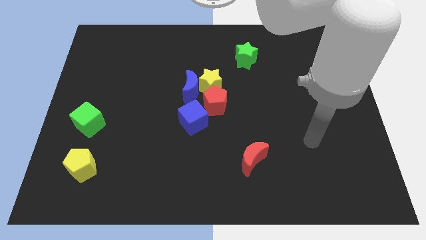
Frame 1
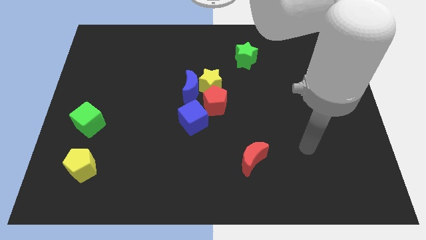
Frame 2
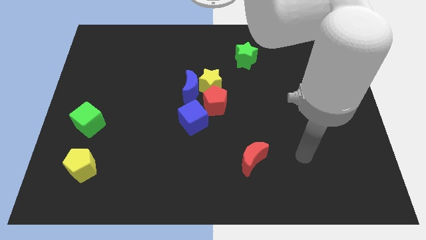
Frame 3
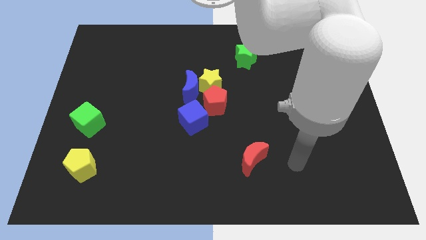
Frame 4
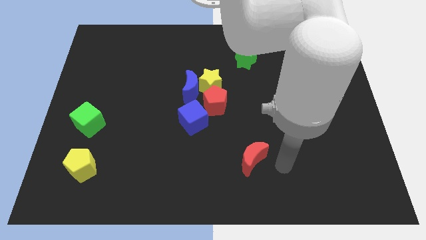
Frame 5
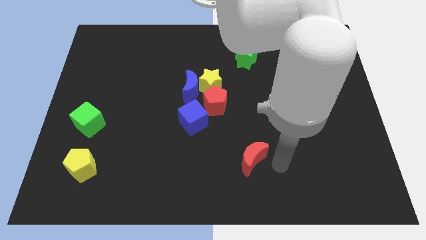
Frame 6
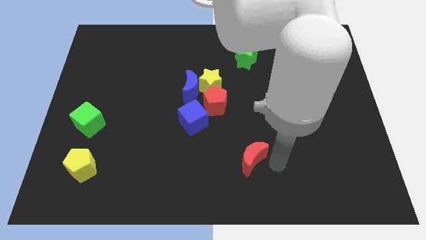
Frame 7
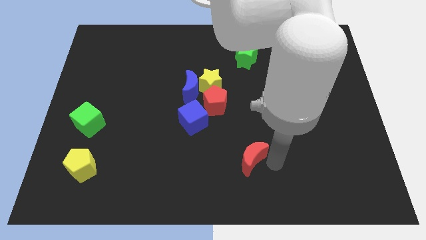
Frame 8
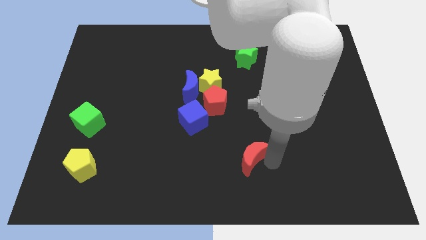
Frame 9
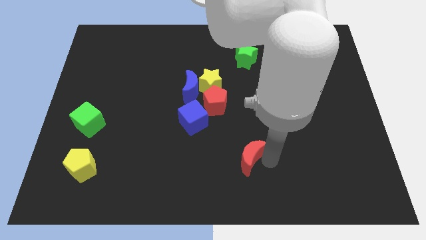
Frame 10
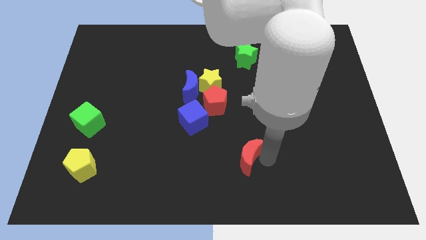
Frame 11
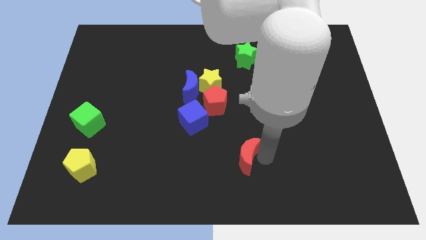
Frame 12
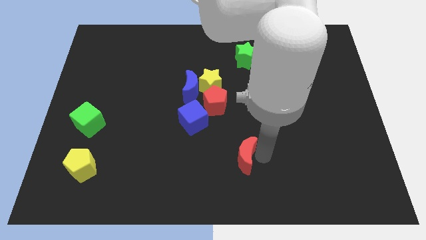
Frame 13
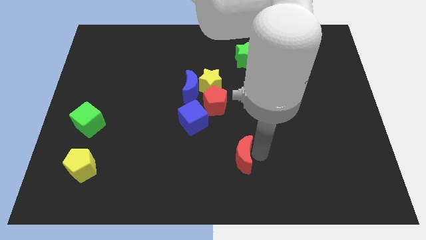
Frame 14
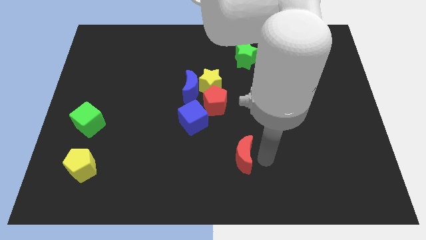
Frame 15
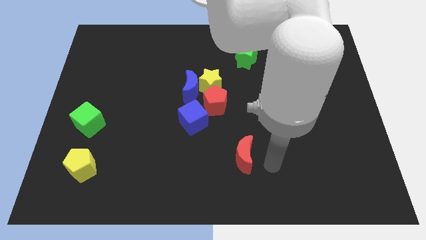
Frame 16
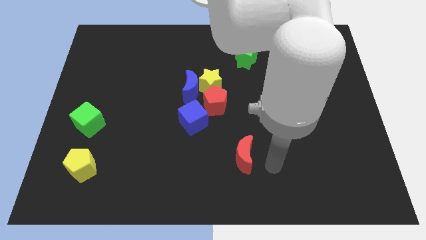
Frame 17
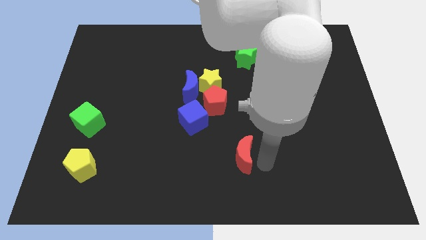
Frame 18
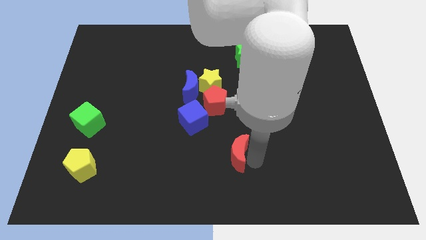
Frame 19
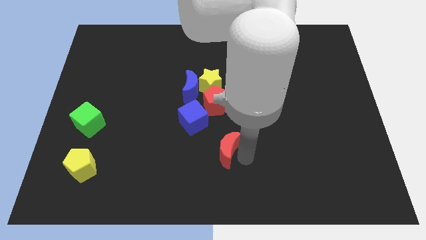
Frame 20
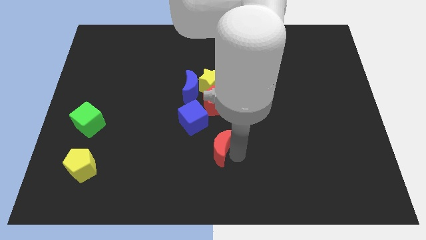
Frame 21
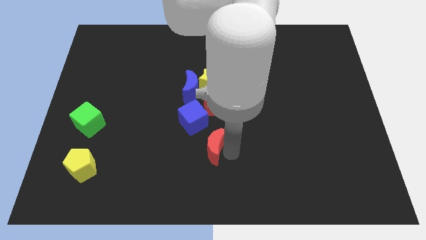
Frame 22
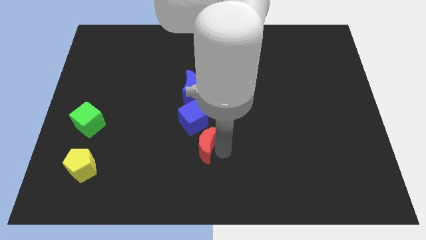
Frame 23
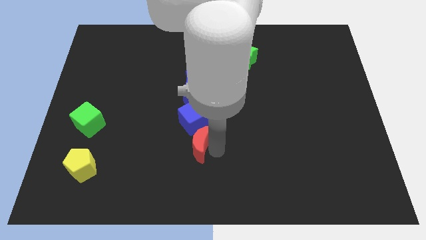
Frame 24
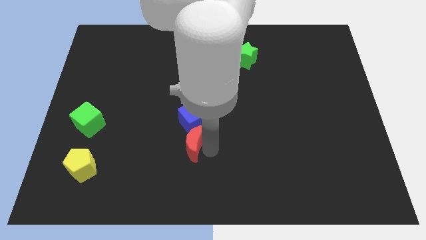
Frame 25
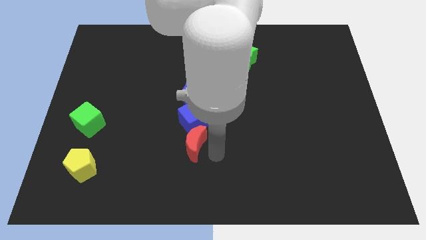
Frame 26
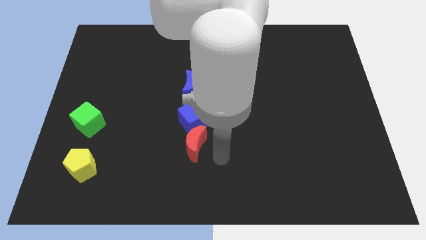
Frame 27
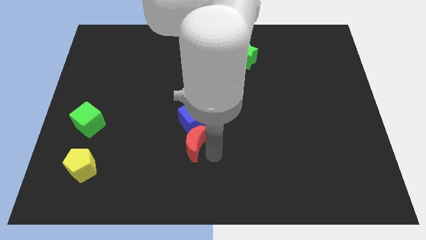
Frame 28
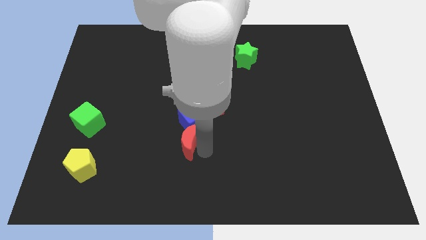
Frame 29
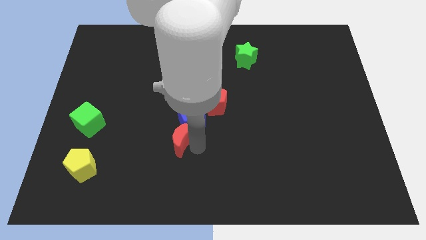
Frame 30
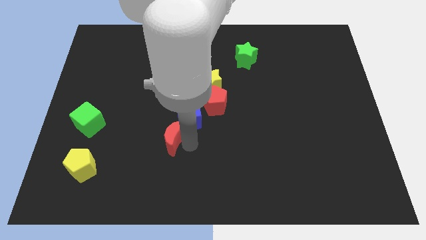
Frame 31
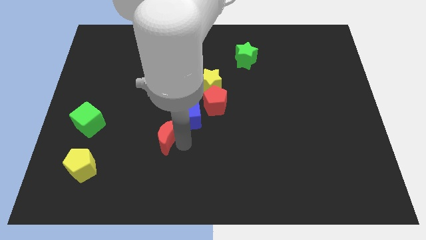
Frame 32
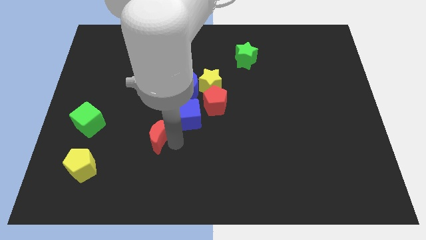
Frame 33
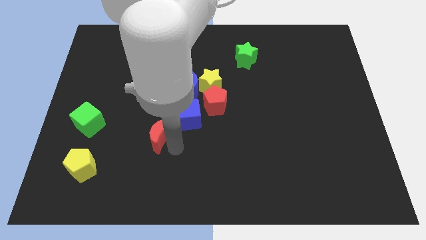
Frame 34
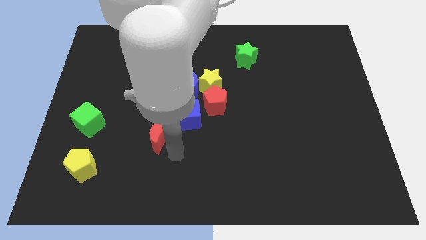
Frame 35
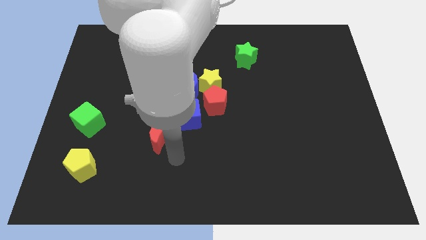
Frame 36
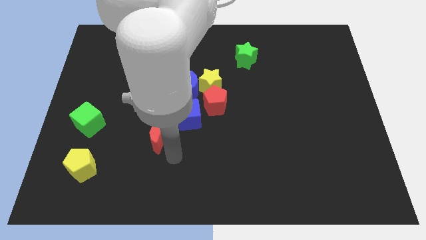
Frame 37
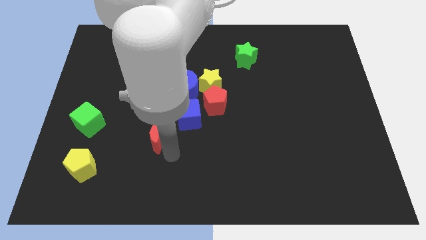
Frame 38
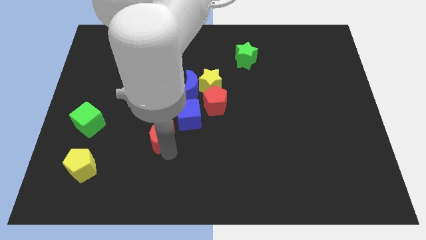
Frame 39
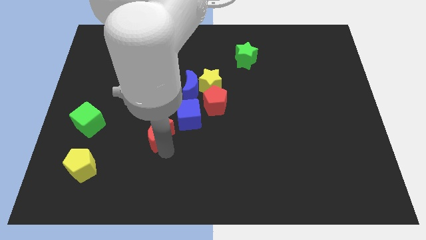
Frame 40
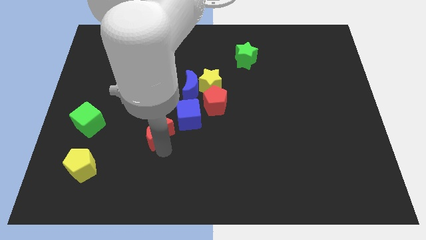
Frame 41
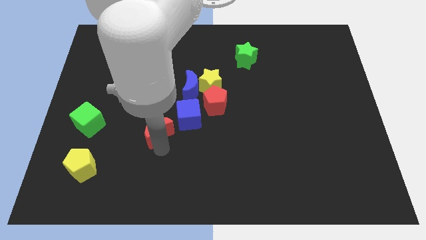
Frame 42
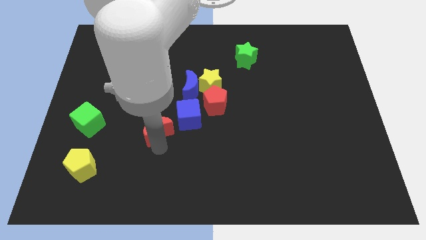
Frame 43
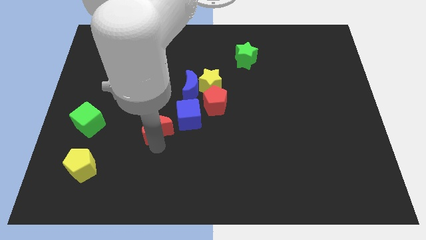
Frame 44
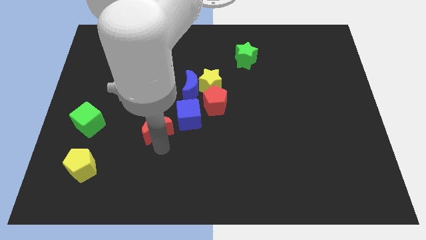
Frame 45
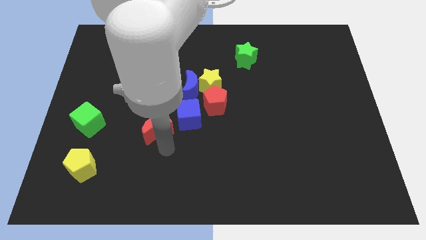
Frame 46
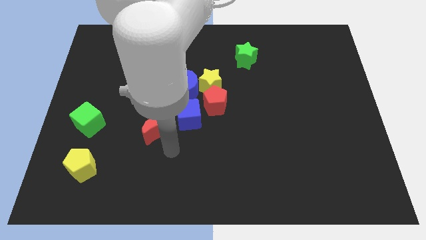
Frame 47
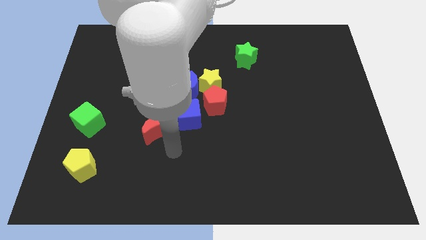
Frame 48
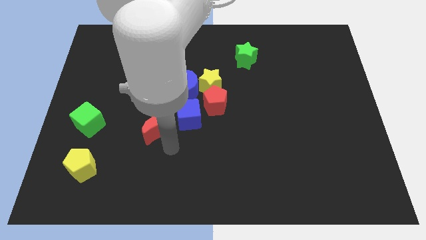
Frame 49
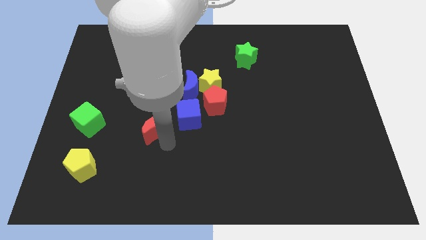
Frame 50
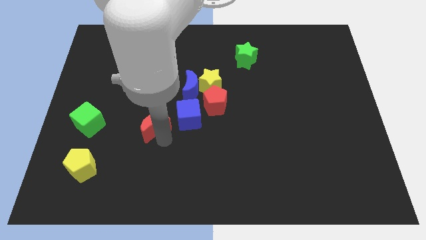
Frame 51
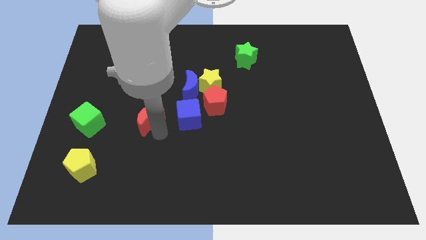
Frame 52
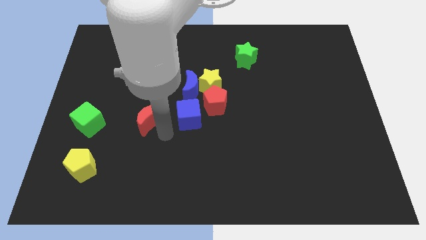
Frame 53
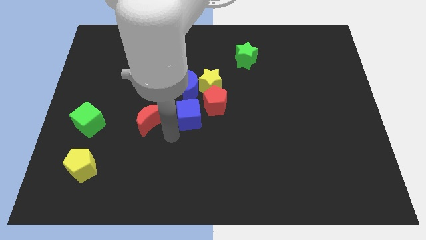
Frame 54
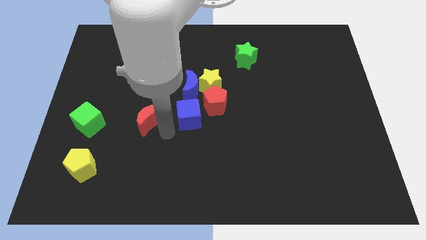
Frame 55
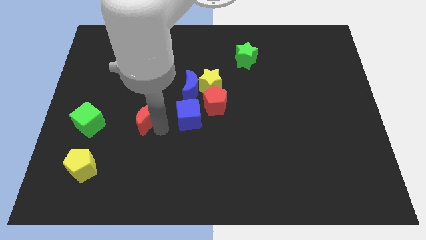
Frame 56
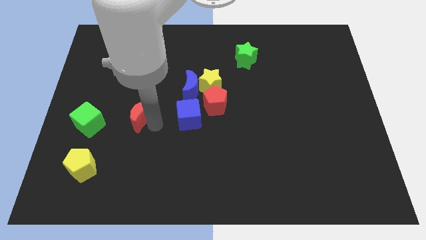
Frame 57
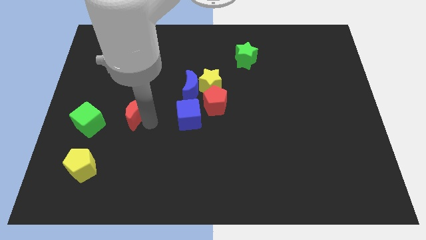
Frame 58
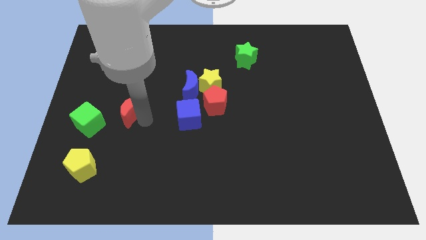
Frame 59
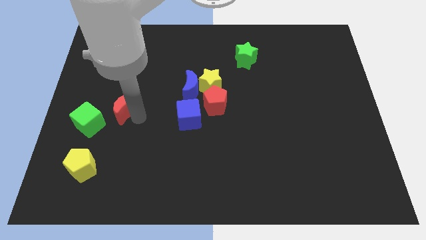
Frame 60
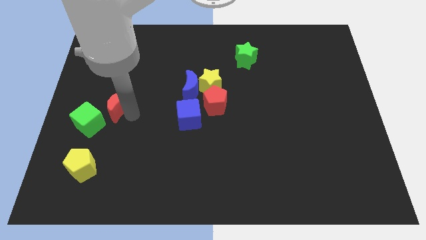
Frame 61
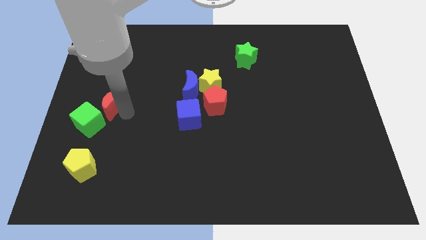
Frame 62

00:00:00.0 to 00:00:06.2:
put the red moon to the top side of the green cube
